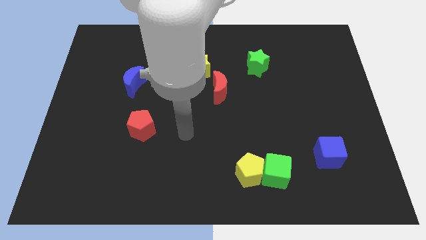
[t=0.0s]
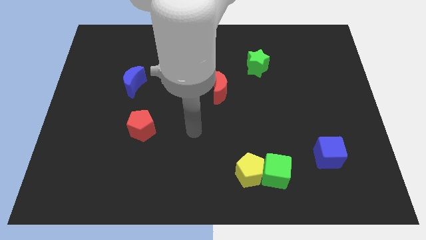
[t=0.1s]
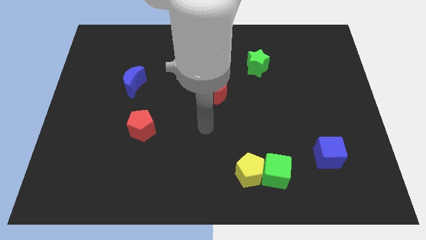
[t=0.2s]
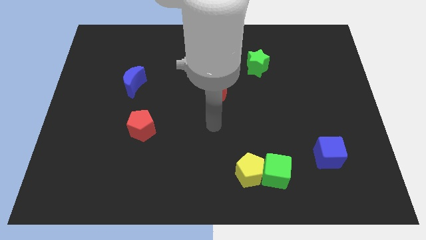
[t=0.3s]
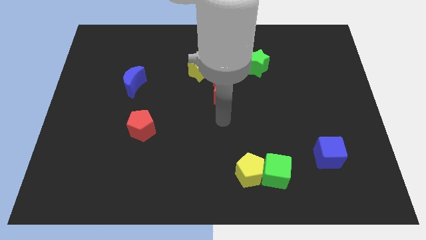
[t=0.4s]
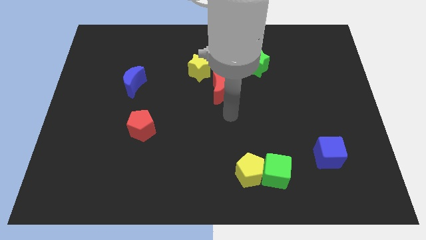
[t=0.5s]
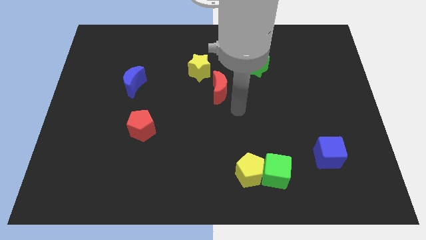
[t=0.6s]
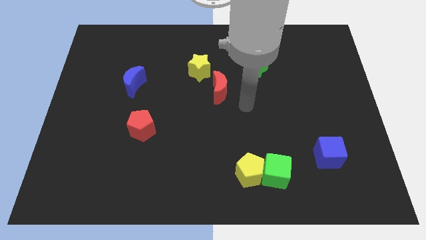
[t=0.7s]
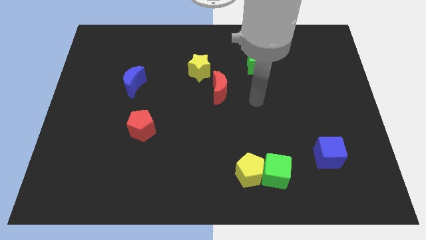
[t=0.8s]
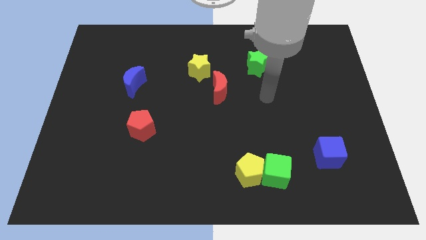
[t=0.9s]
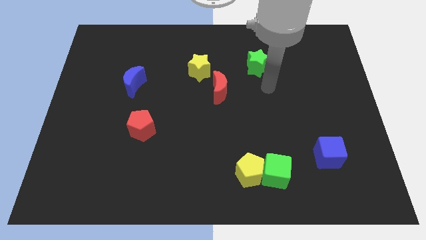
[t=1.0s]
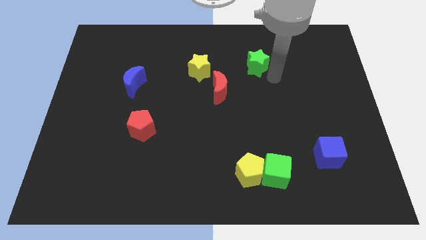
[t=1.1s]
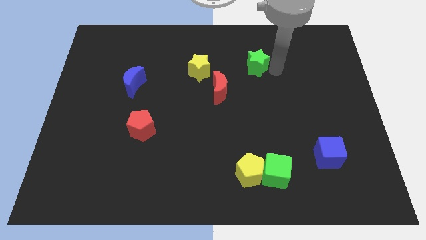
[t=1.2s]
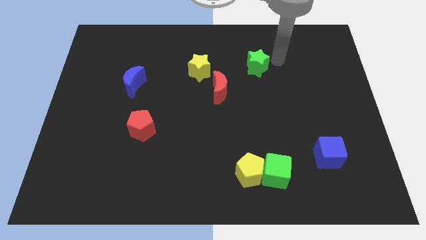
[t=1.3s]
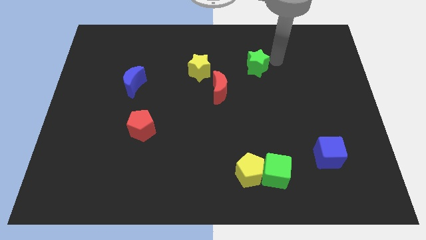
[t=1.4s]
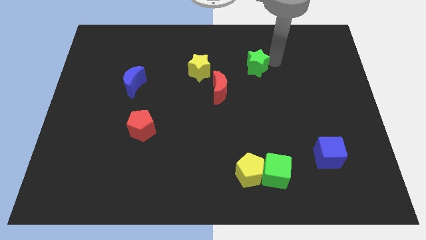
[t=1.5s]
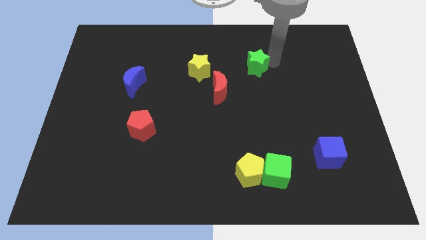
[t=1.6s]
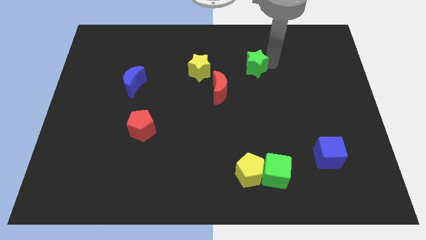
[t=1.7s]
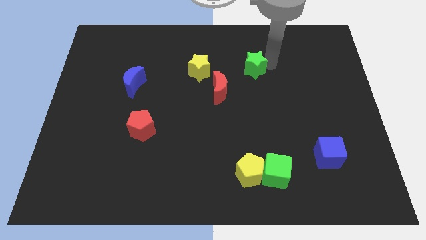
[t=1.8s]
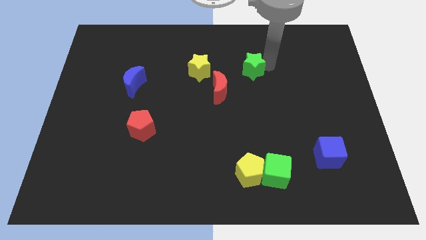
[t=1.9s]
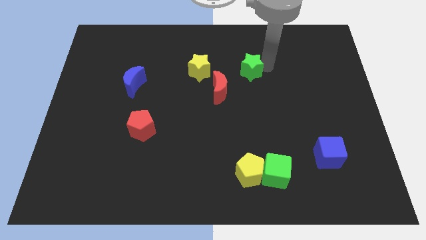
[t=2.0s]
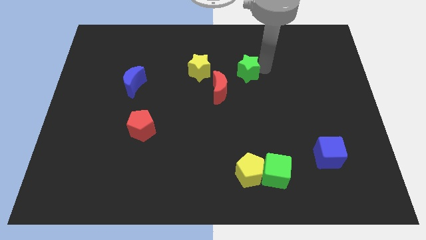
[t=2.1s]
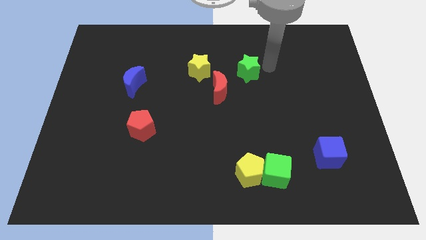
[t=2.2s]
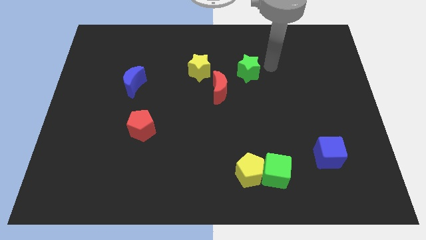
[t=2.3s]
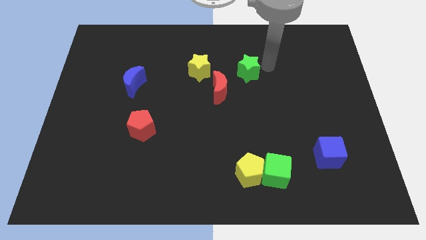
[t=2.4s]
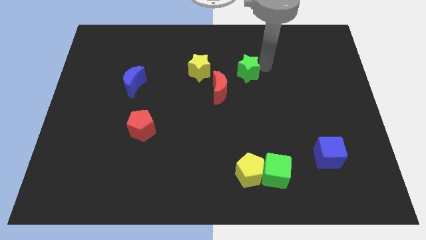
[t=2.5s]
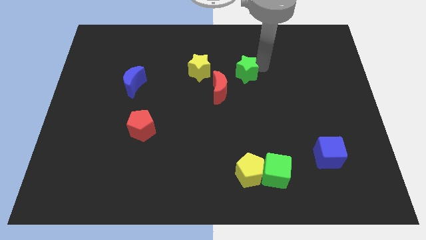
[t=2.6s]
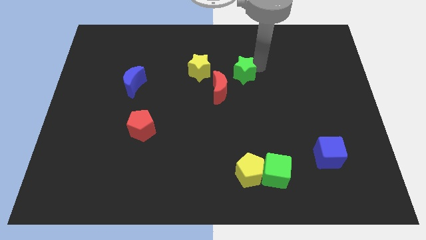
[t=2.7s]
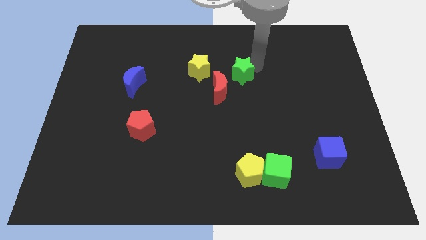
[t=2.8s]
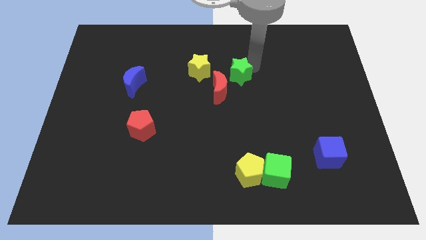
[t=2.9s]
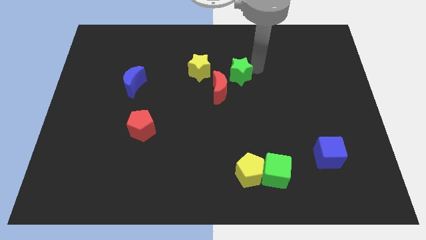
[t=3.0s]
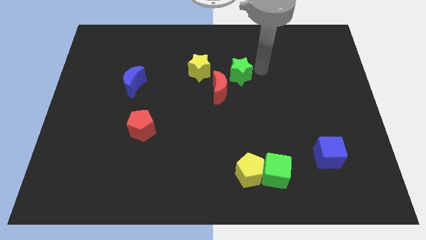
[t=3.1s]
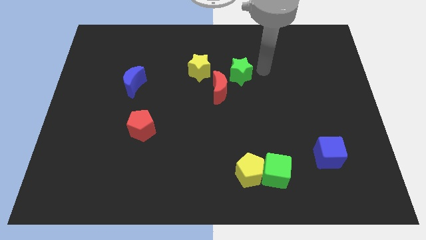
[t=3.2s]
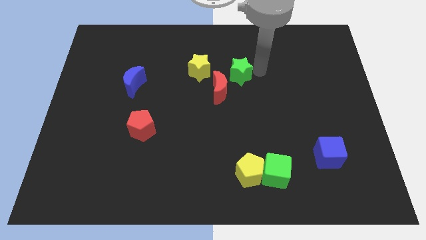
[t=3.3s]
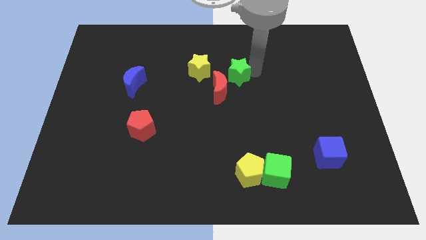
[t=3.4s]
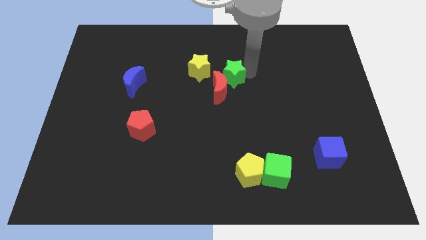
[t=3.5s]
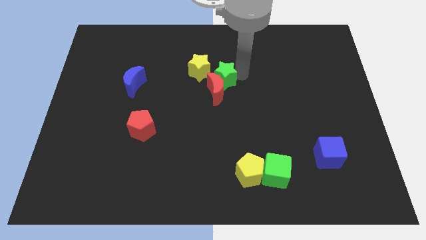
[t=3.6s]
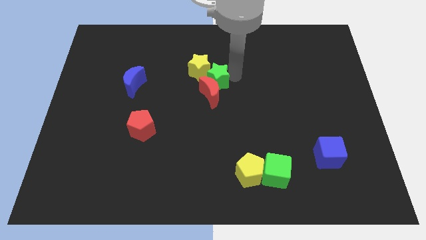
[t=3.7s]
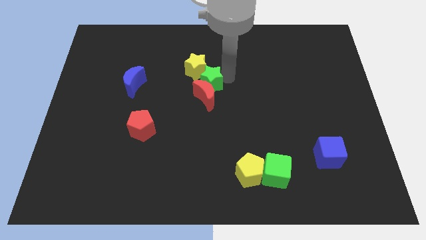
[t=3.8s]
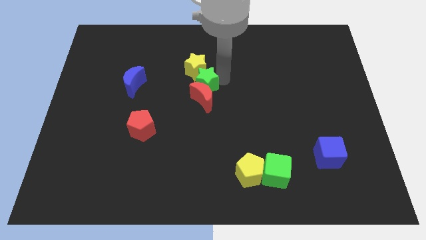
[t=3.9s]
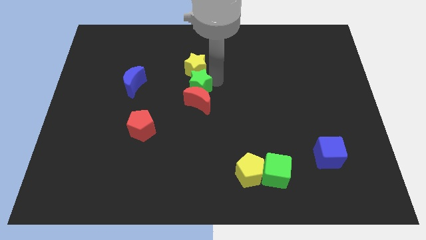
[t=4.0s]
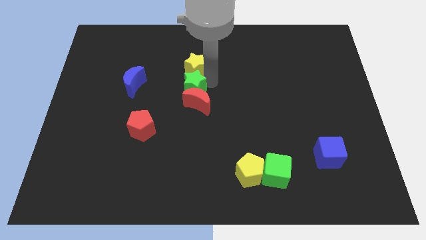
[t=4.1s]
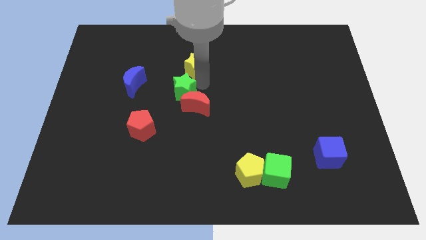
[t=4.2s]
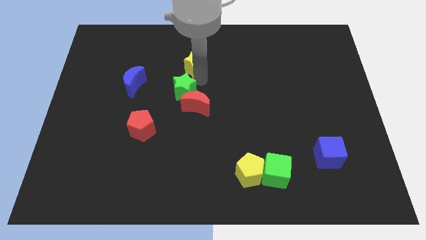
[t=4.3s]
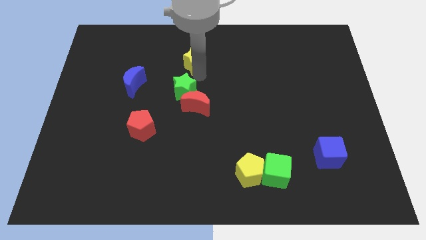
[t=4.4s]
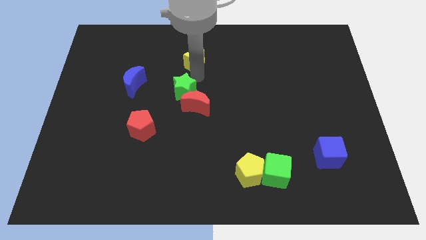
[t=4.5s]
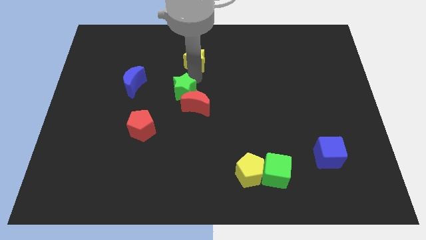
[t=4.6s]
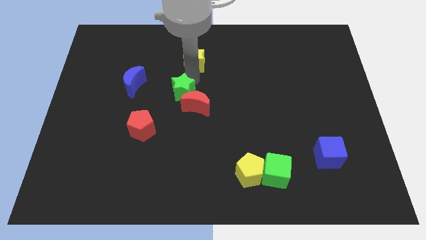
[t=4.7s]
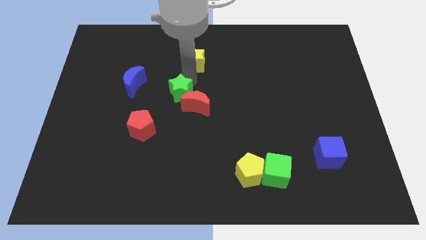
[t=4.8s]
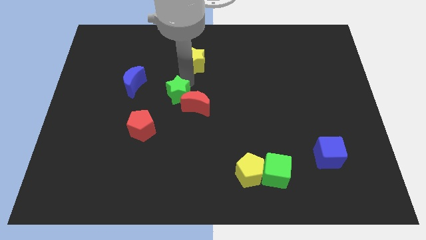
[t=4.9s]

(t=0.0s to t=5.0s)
push the green star diagonally up and to the right of the red pentagon

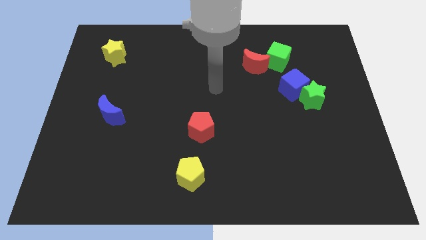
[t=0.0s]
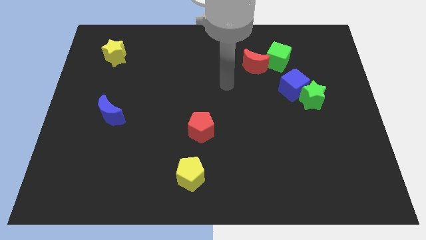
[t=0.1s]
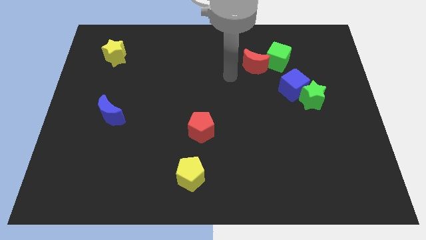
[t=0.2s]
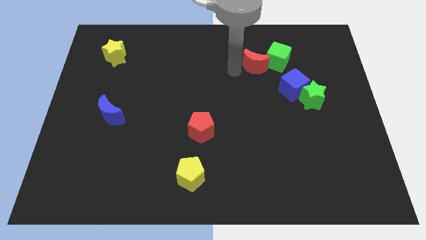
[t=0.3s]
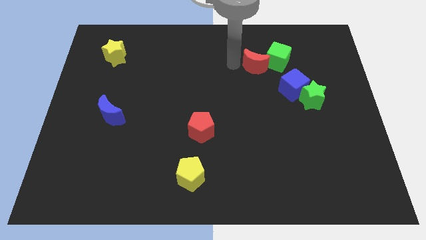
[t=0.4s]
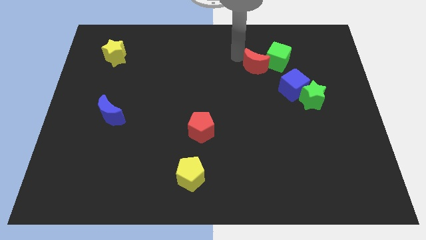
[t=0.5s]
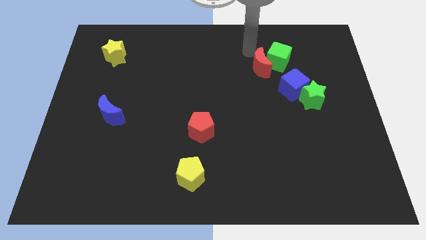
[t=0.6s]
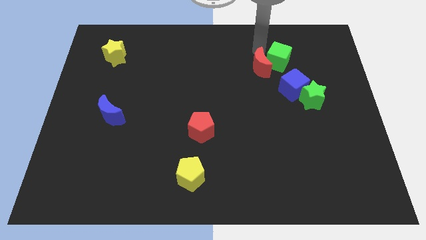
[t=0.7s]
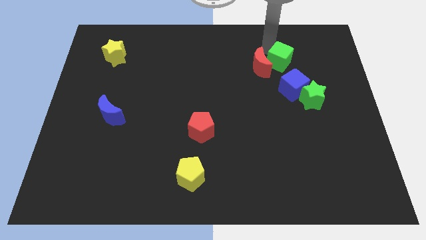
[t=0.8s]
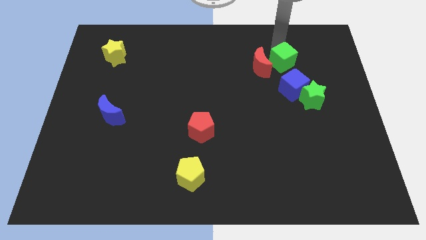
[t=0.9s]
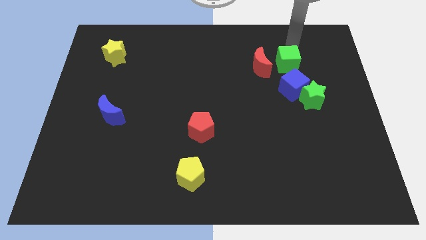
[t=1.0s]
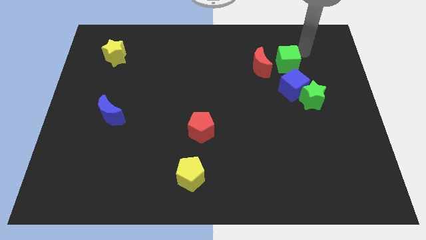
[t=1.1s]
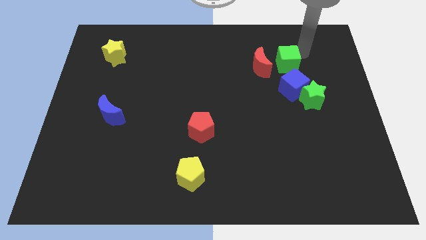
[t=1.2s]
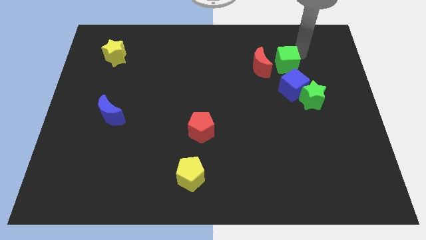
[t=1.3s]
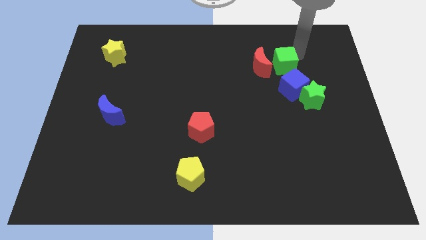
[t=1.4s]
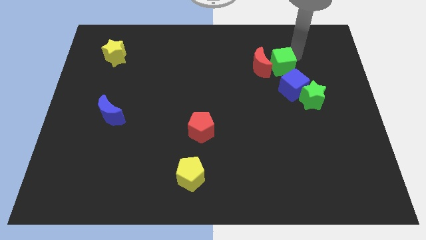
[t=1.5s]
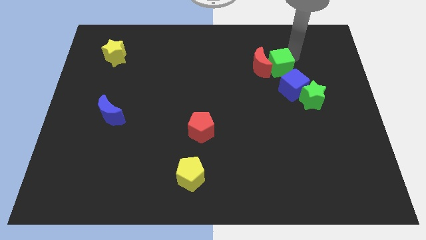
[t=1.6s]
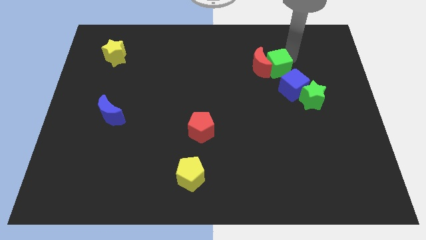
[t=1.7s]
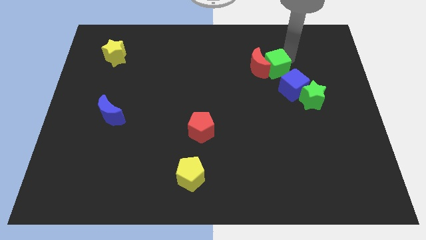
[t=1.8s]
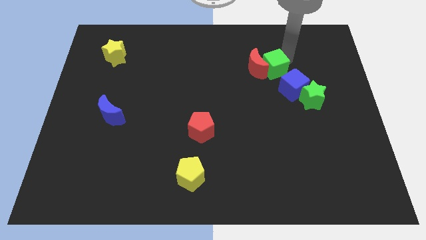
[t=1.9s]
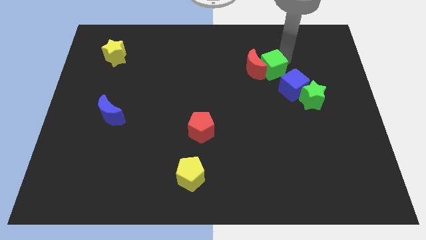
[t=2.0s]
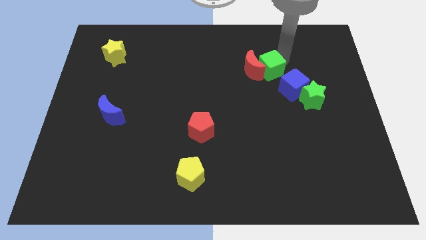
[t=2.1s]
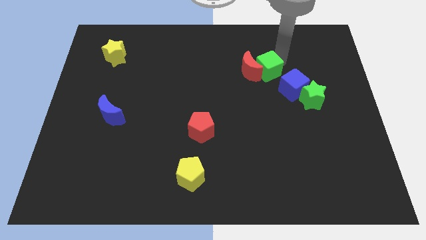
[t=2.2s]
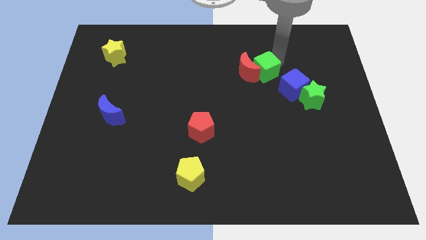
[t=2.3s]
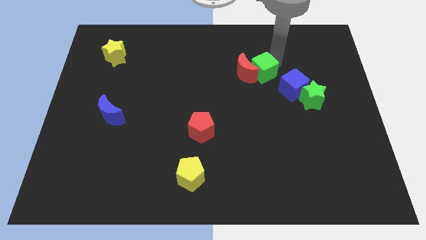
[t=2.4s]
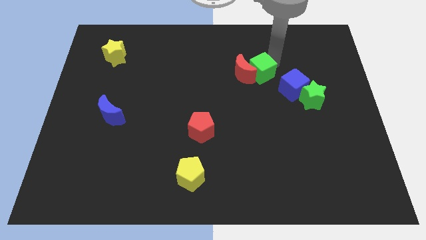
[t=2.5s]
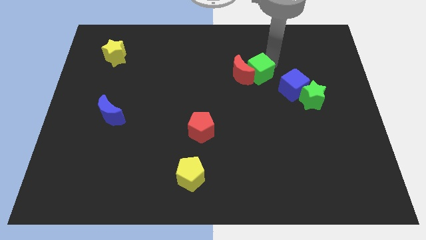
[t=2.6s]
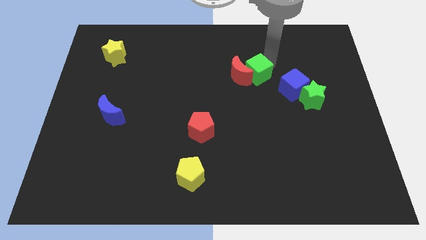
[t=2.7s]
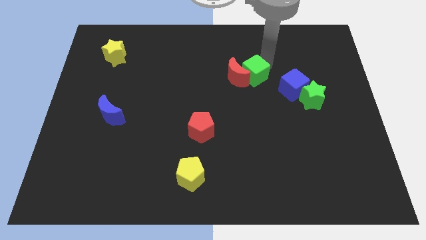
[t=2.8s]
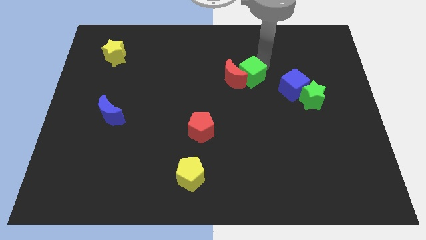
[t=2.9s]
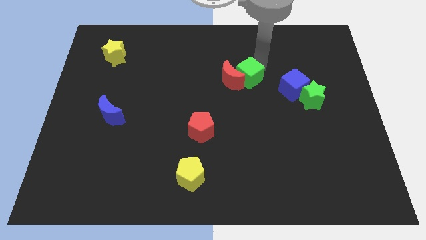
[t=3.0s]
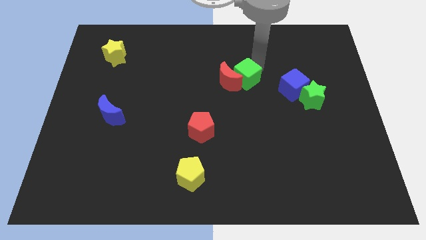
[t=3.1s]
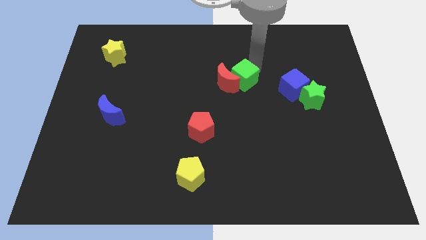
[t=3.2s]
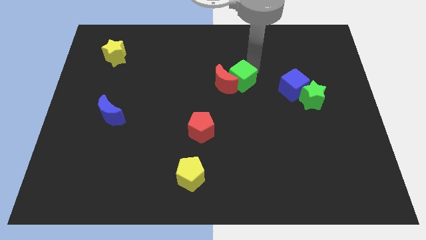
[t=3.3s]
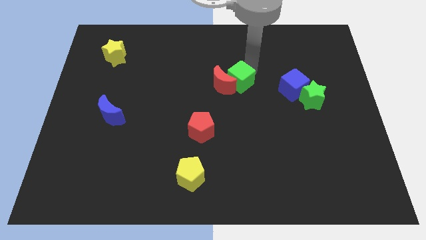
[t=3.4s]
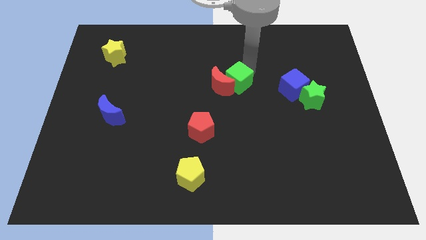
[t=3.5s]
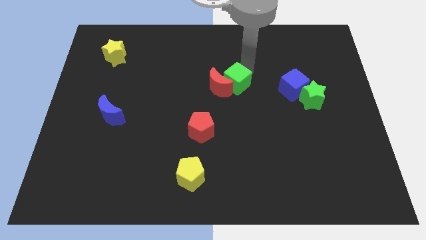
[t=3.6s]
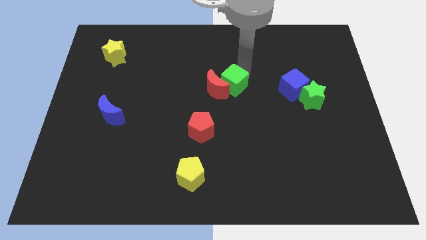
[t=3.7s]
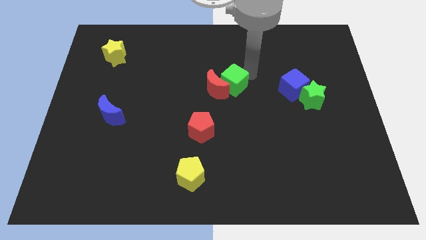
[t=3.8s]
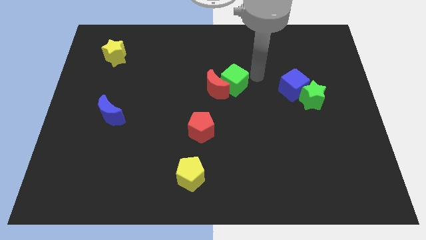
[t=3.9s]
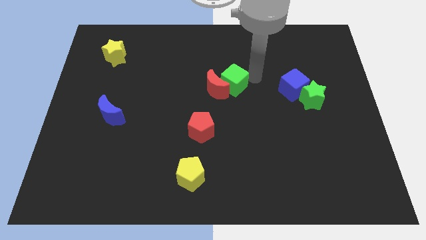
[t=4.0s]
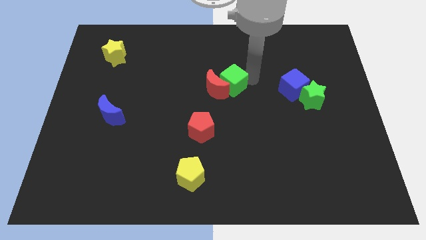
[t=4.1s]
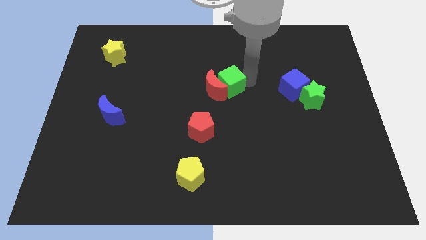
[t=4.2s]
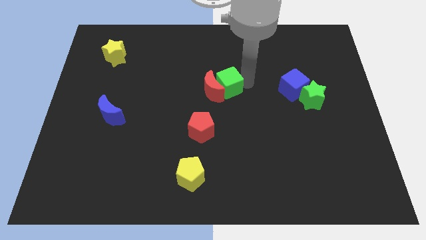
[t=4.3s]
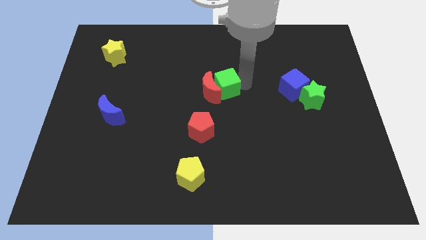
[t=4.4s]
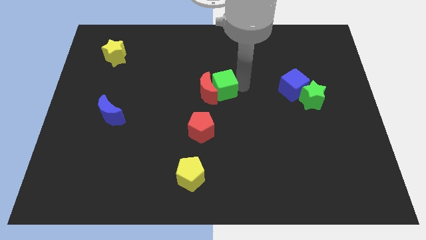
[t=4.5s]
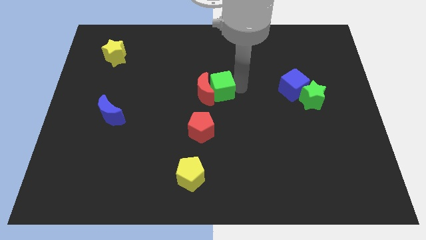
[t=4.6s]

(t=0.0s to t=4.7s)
slide the green cube above the red pentagon
